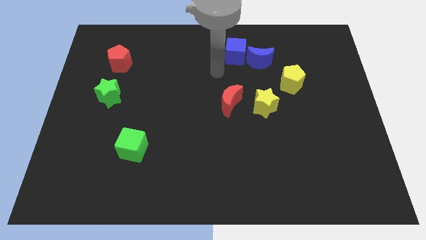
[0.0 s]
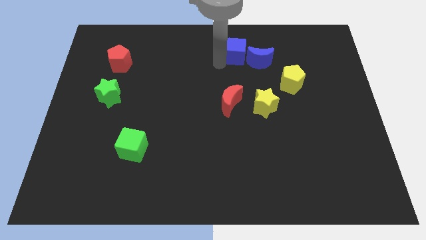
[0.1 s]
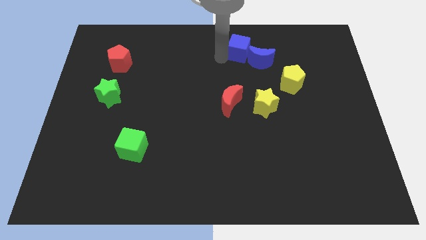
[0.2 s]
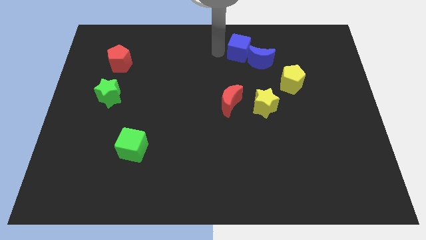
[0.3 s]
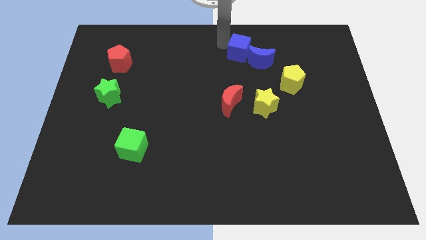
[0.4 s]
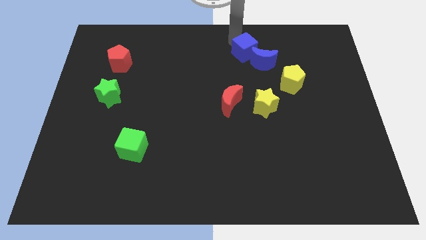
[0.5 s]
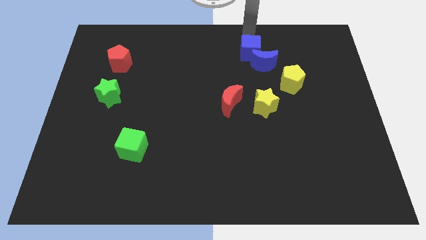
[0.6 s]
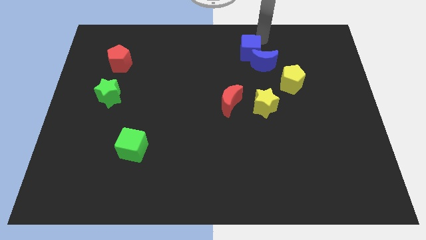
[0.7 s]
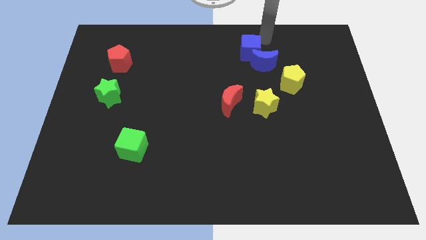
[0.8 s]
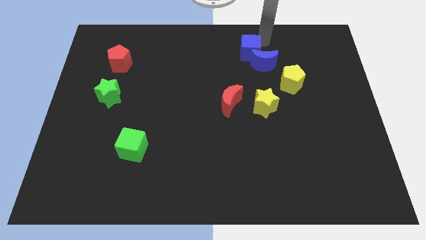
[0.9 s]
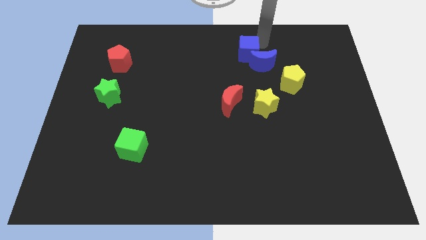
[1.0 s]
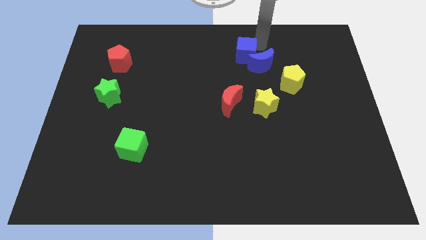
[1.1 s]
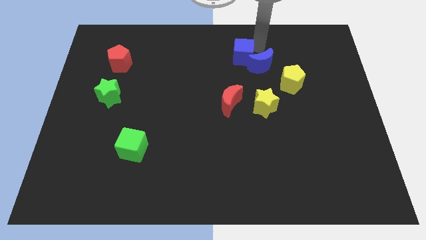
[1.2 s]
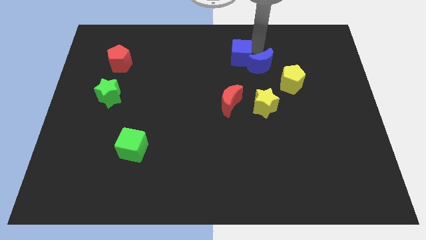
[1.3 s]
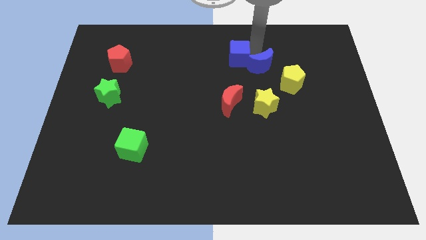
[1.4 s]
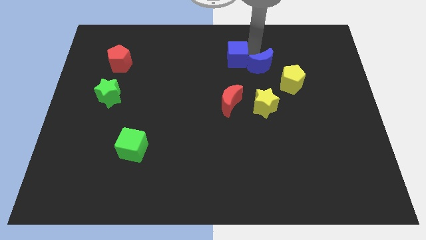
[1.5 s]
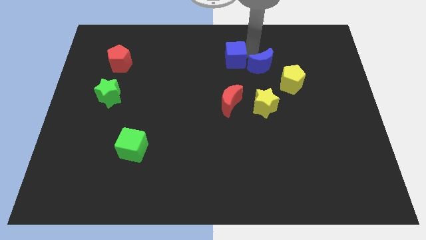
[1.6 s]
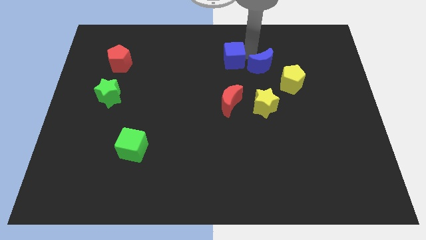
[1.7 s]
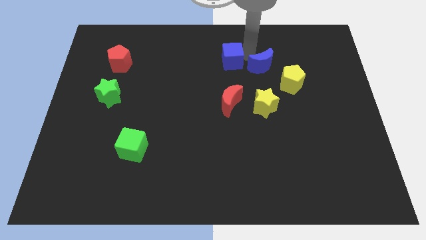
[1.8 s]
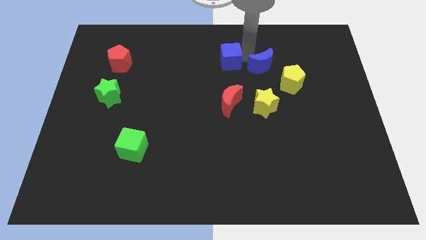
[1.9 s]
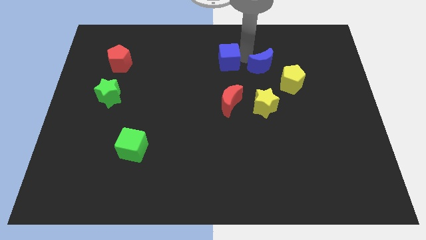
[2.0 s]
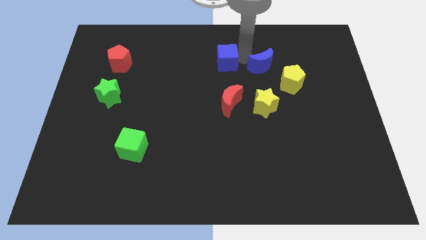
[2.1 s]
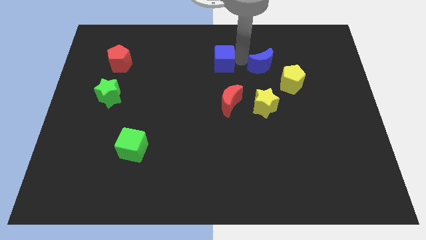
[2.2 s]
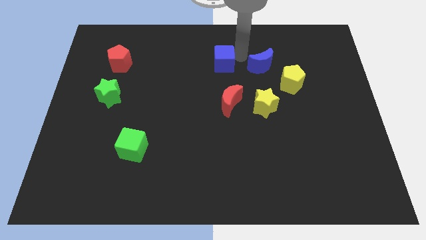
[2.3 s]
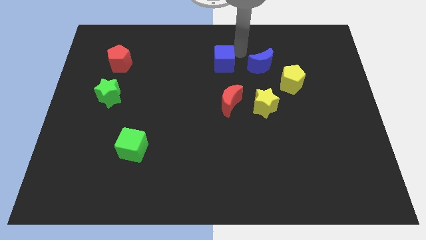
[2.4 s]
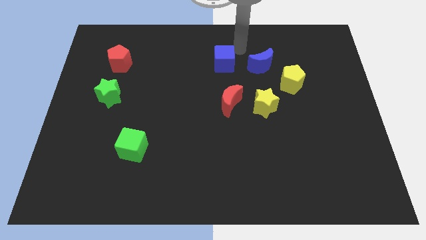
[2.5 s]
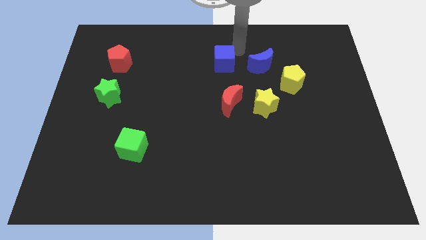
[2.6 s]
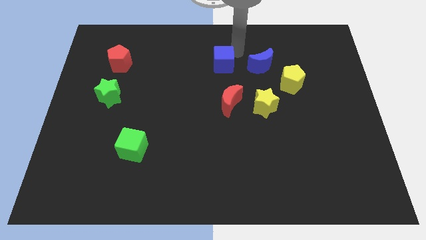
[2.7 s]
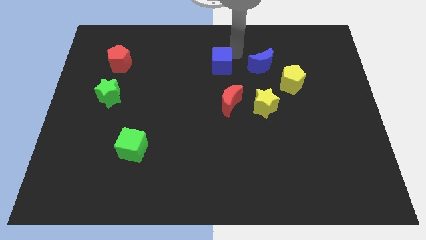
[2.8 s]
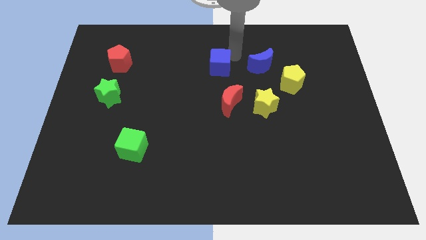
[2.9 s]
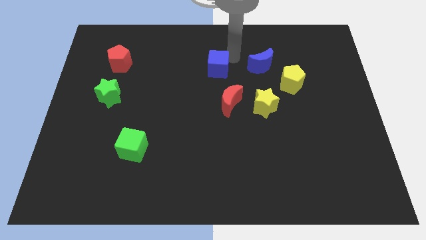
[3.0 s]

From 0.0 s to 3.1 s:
slightly move the blue cube downwards and to the left

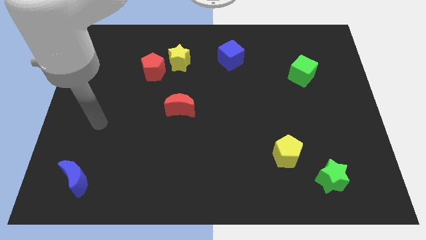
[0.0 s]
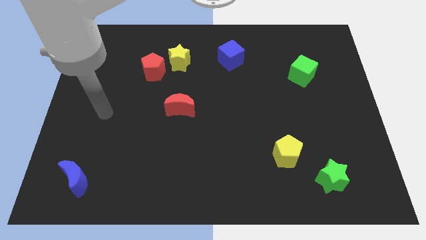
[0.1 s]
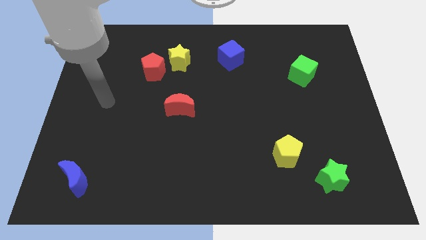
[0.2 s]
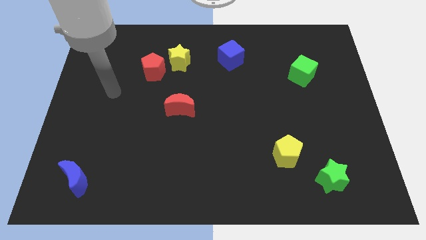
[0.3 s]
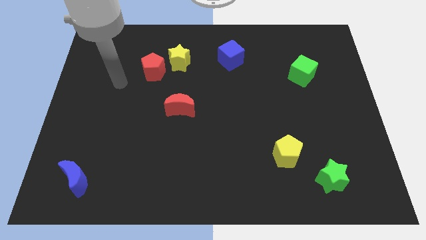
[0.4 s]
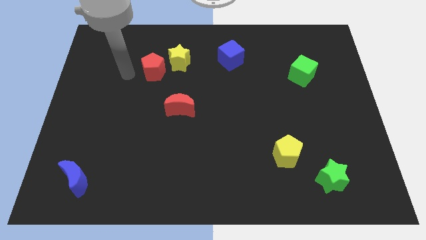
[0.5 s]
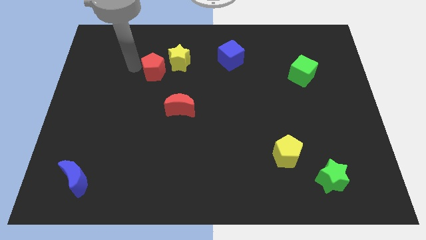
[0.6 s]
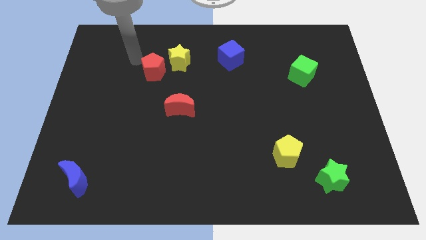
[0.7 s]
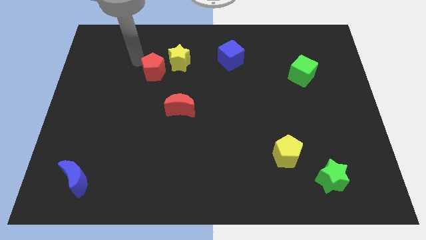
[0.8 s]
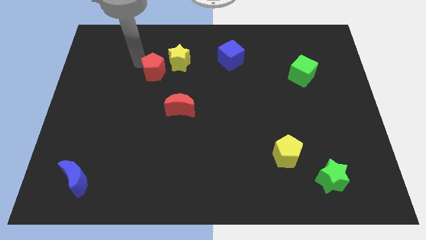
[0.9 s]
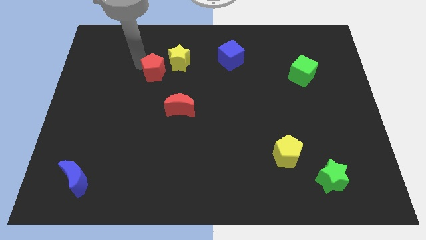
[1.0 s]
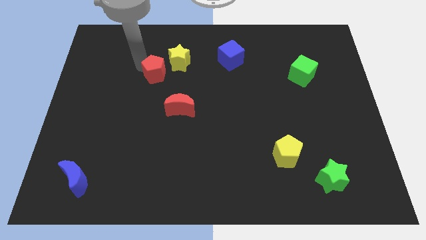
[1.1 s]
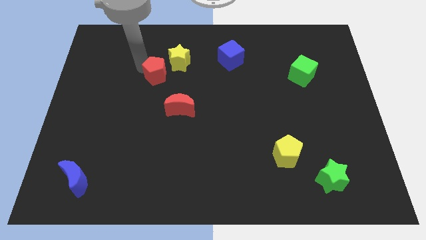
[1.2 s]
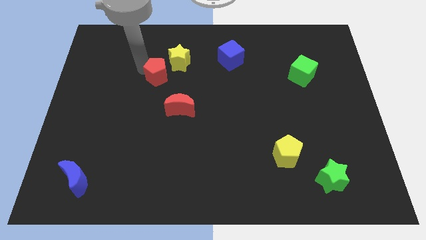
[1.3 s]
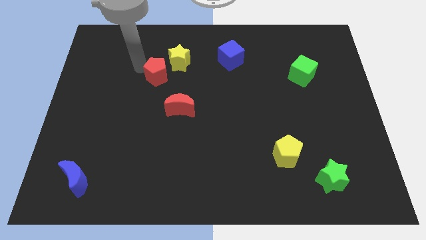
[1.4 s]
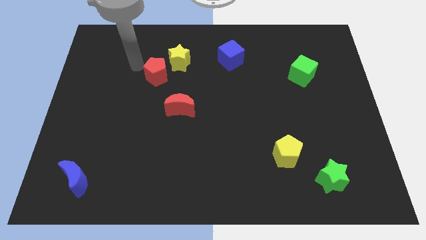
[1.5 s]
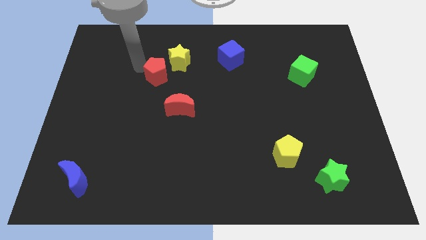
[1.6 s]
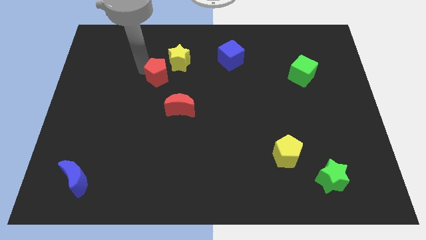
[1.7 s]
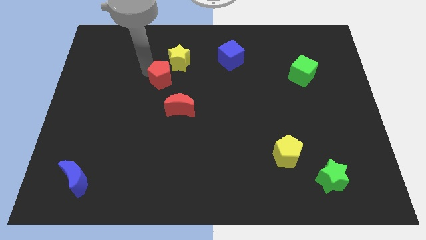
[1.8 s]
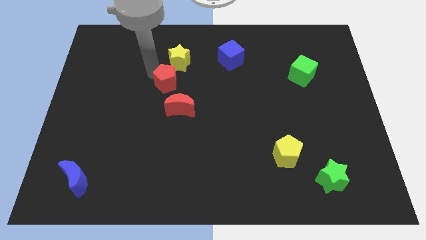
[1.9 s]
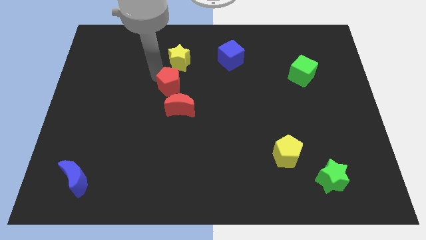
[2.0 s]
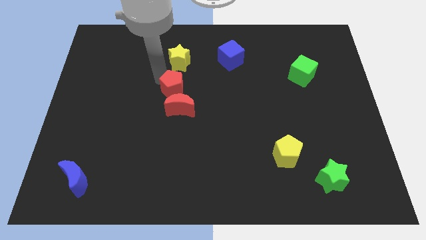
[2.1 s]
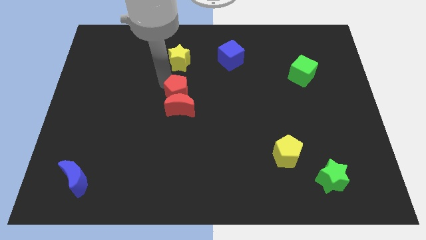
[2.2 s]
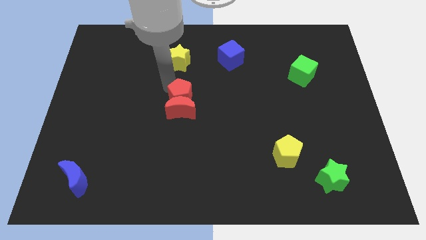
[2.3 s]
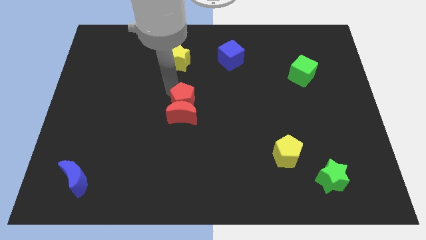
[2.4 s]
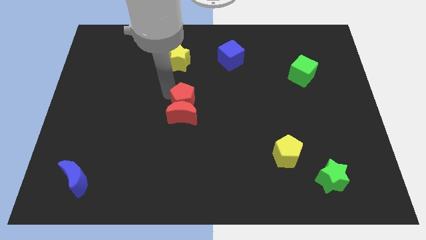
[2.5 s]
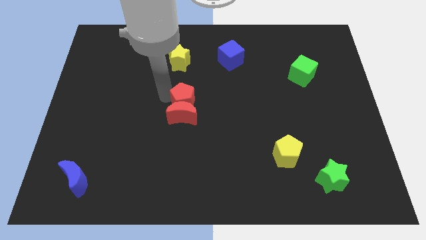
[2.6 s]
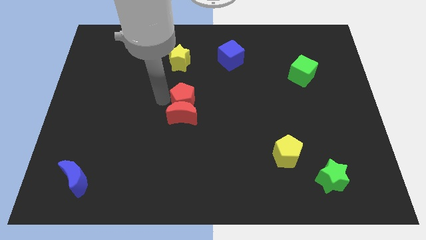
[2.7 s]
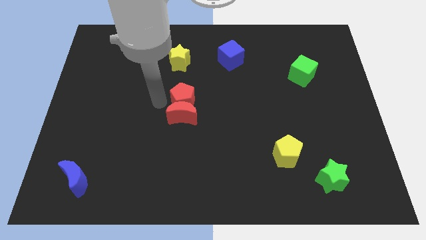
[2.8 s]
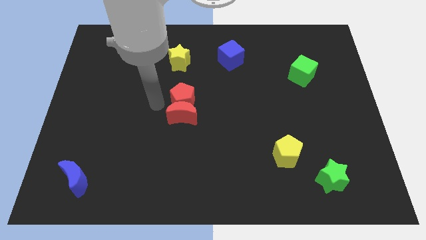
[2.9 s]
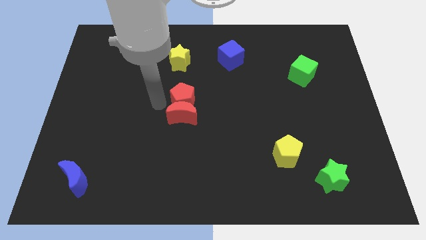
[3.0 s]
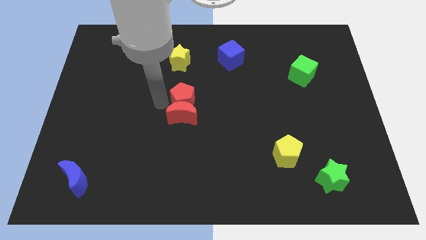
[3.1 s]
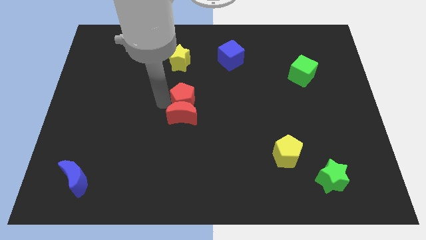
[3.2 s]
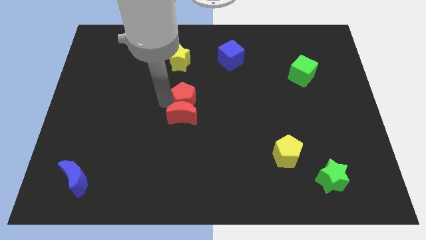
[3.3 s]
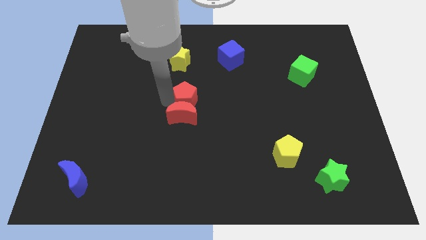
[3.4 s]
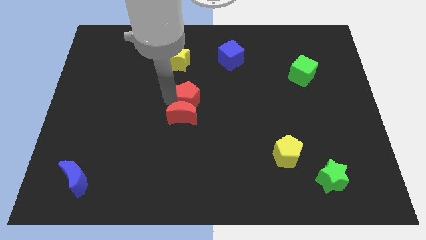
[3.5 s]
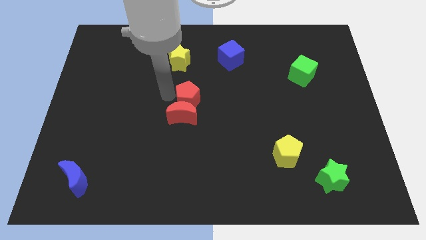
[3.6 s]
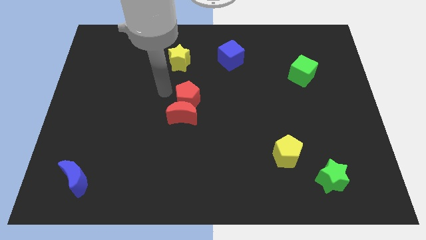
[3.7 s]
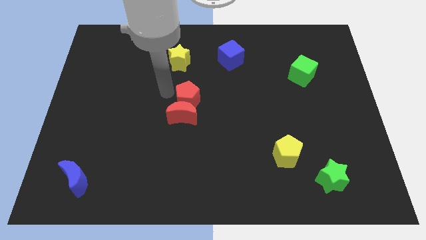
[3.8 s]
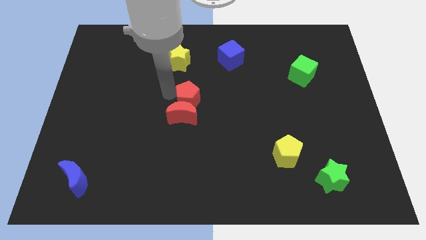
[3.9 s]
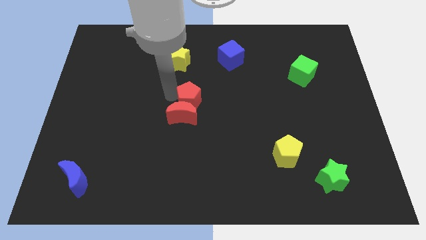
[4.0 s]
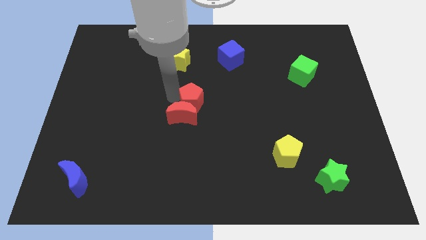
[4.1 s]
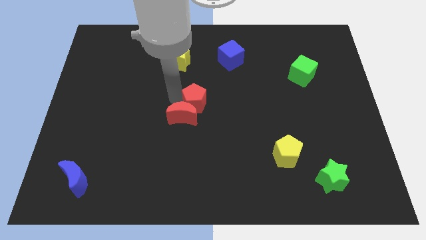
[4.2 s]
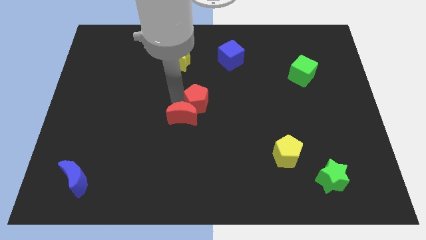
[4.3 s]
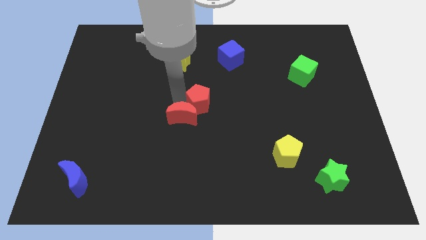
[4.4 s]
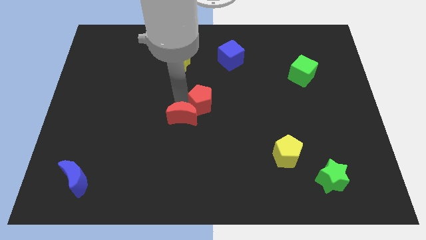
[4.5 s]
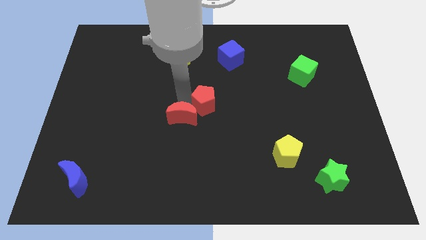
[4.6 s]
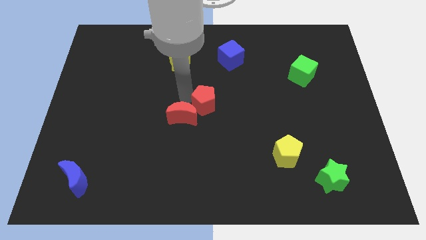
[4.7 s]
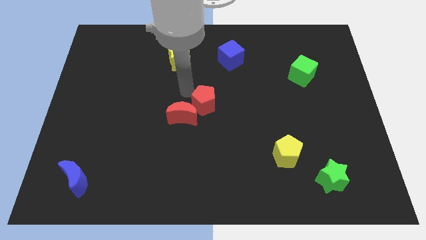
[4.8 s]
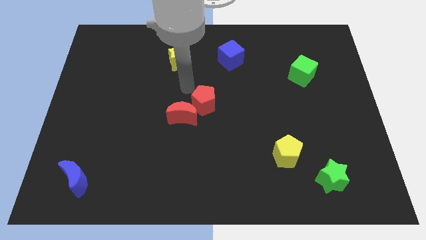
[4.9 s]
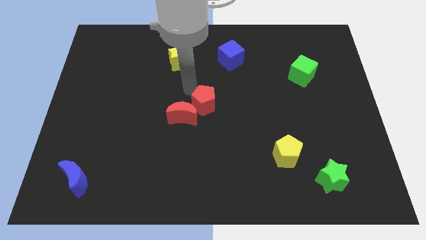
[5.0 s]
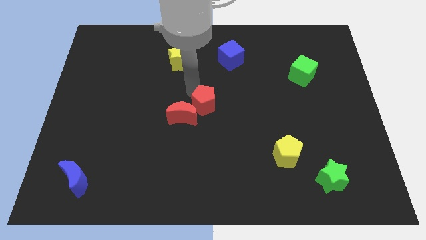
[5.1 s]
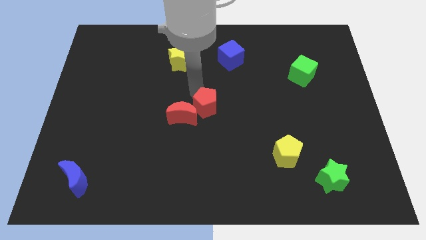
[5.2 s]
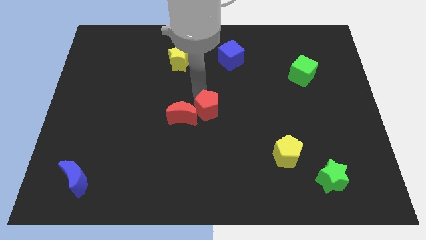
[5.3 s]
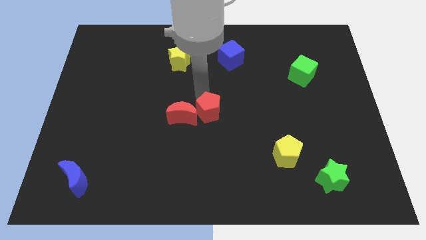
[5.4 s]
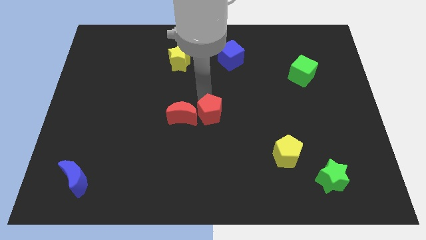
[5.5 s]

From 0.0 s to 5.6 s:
push the red pentagon diagonally downwards and right
